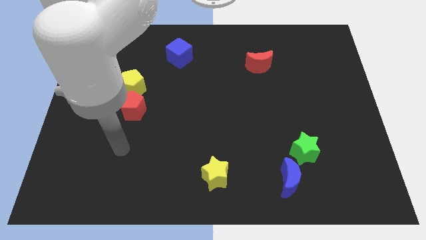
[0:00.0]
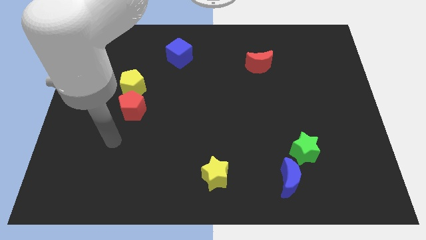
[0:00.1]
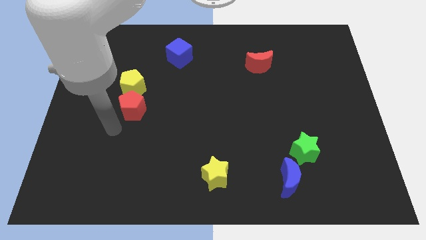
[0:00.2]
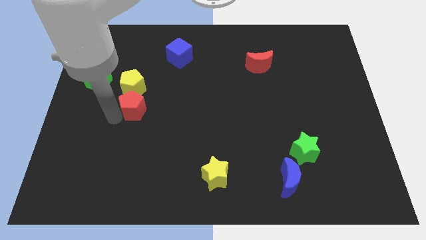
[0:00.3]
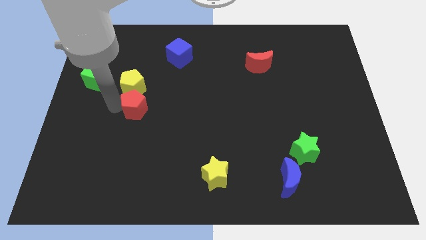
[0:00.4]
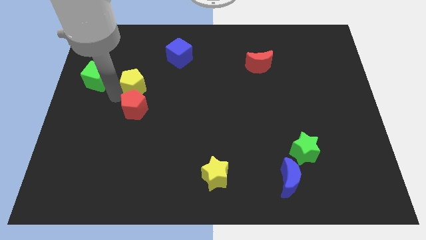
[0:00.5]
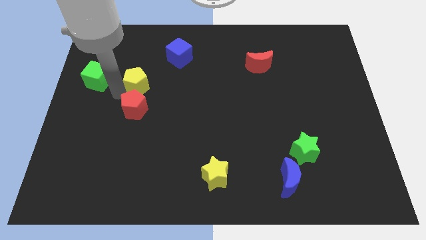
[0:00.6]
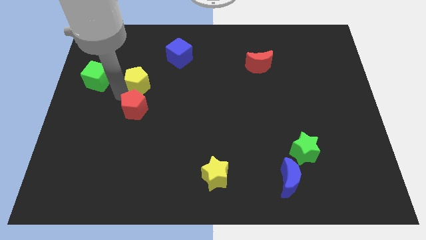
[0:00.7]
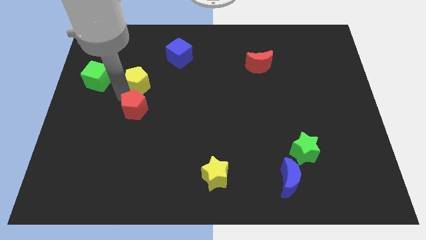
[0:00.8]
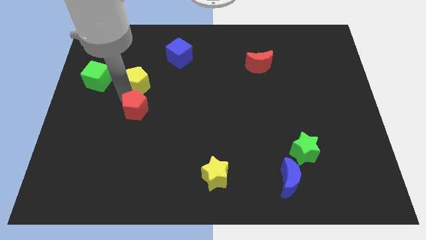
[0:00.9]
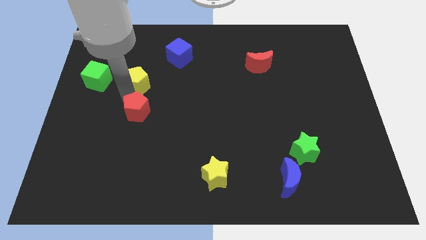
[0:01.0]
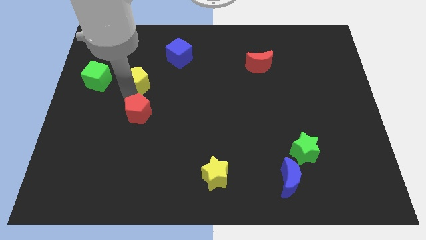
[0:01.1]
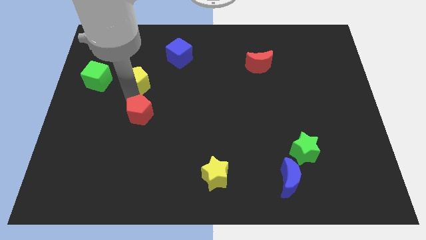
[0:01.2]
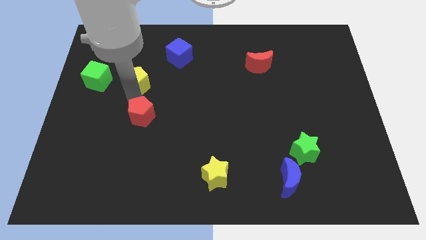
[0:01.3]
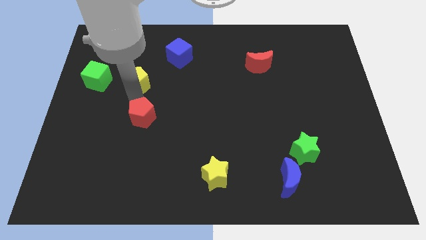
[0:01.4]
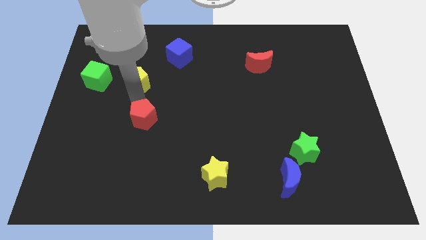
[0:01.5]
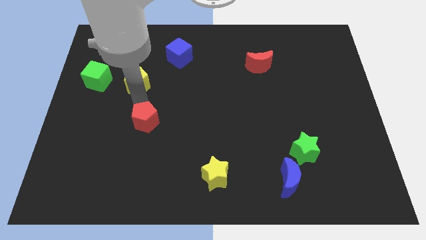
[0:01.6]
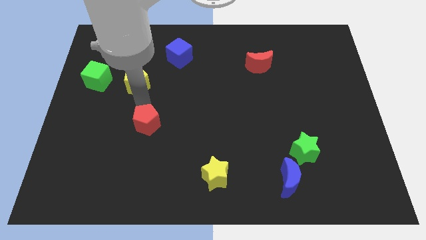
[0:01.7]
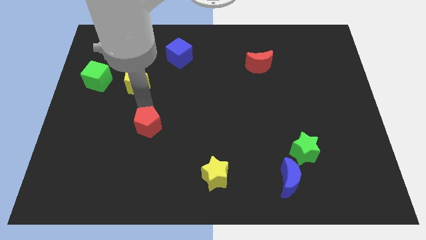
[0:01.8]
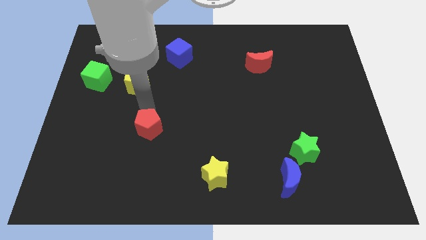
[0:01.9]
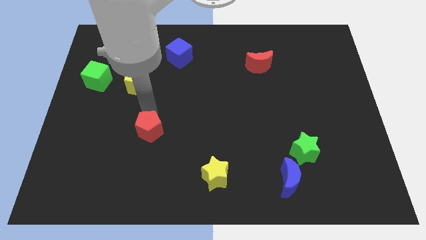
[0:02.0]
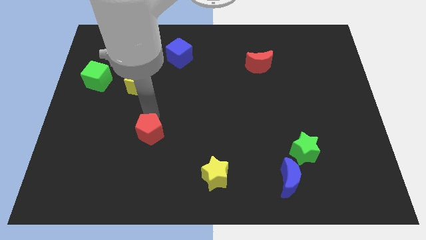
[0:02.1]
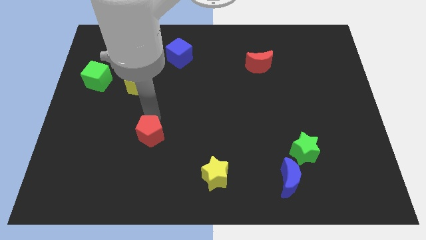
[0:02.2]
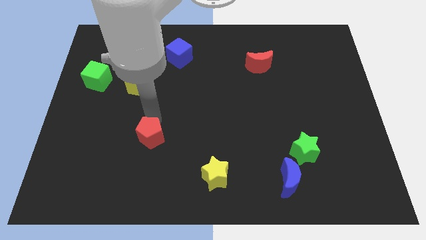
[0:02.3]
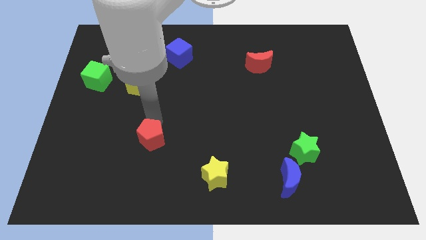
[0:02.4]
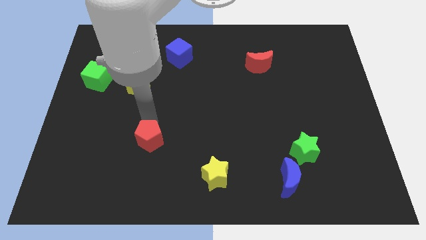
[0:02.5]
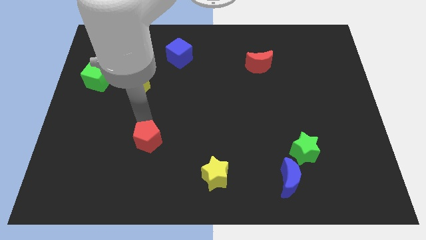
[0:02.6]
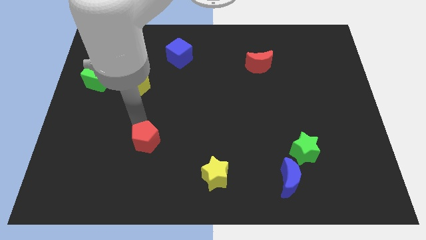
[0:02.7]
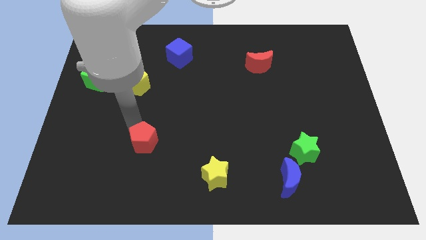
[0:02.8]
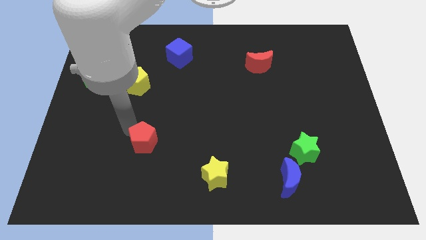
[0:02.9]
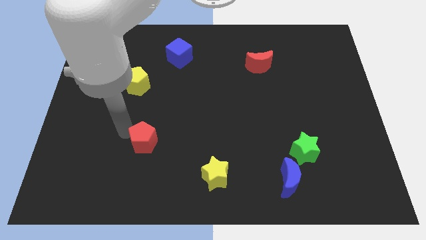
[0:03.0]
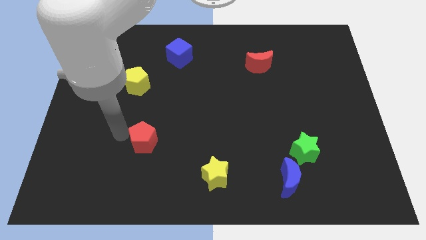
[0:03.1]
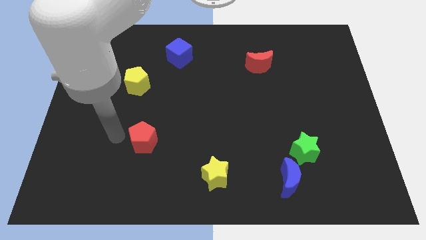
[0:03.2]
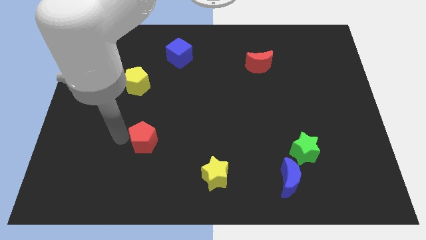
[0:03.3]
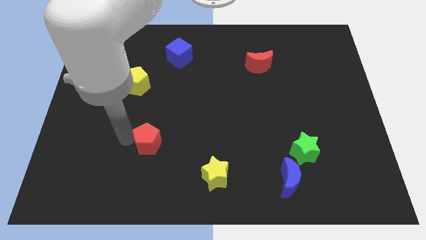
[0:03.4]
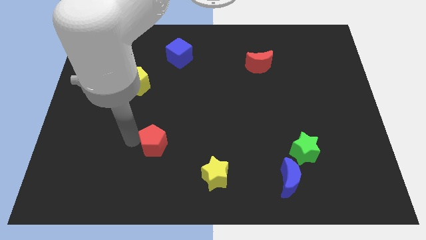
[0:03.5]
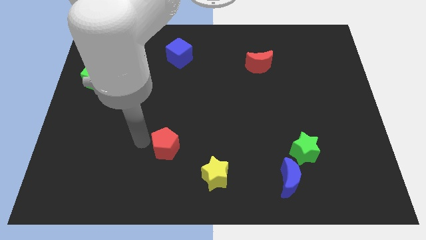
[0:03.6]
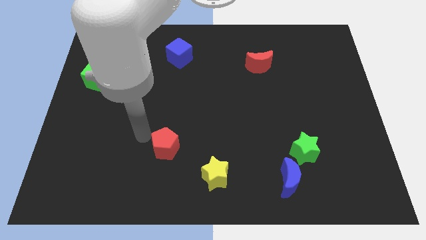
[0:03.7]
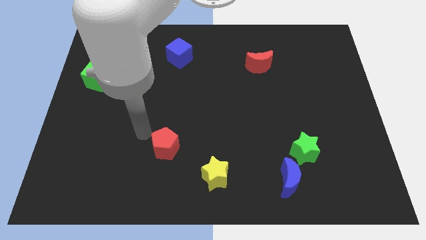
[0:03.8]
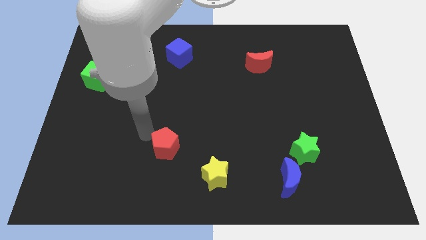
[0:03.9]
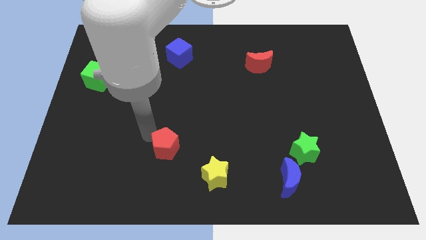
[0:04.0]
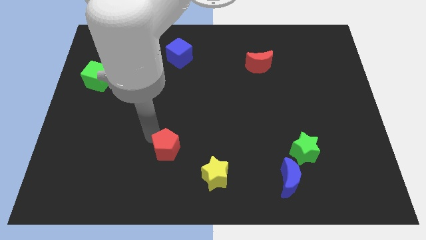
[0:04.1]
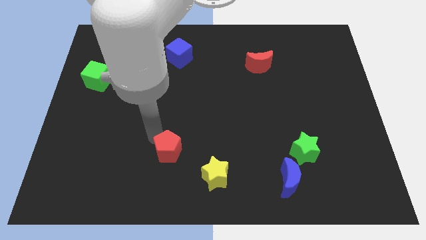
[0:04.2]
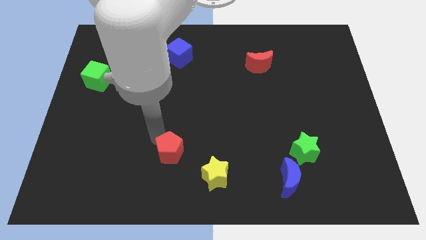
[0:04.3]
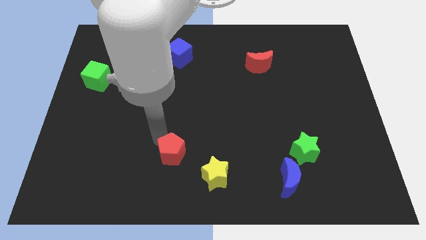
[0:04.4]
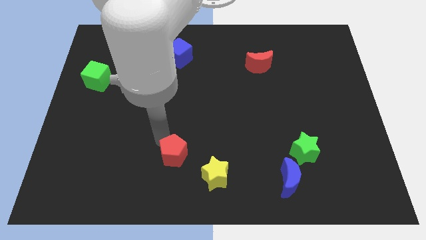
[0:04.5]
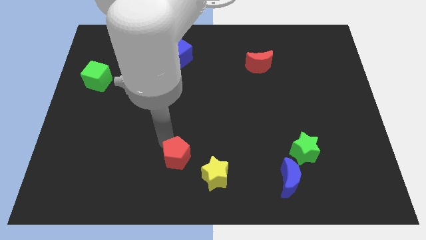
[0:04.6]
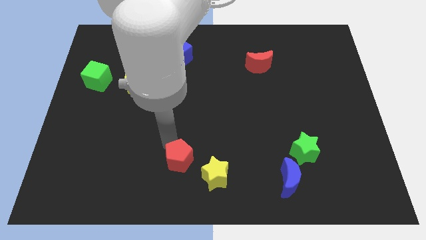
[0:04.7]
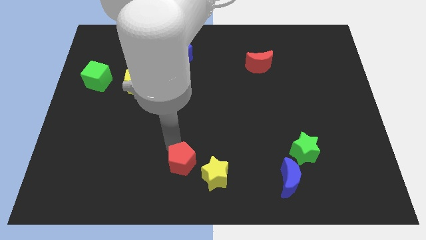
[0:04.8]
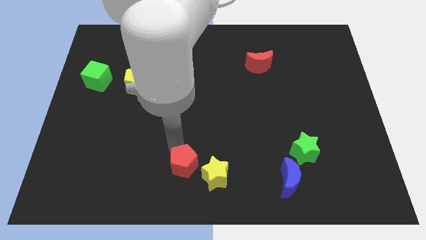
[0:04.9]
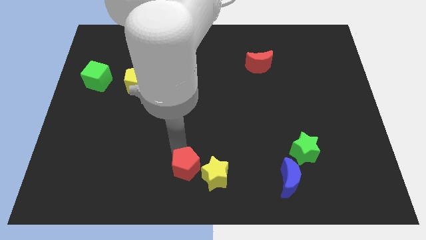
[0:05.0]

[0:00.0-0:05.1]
push the red pentagon next to the yellow star

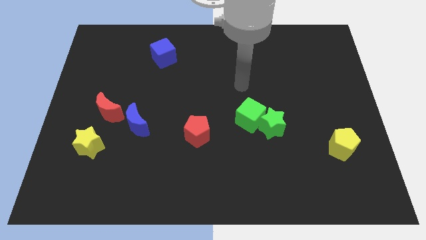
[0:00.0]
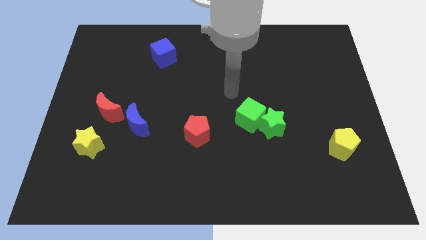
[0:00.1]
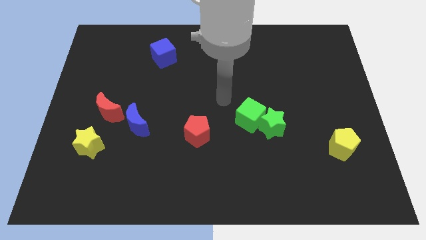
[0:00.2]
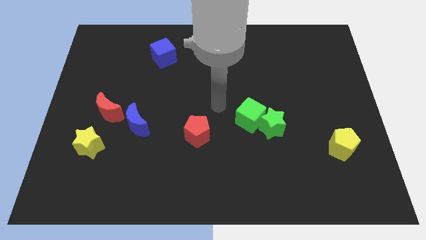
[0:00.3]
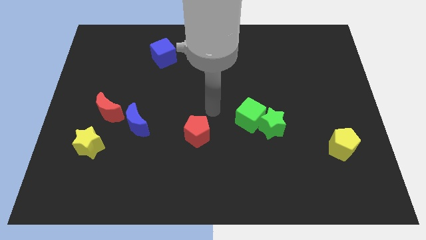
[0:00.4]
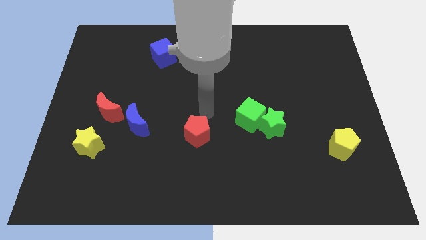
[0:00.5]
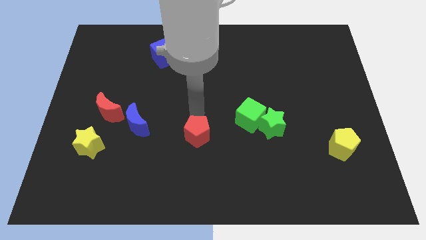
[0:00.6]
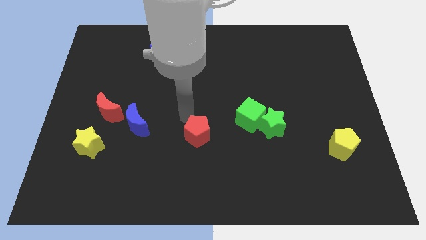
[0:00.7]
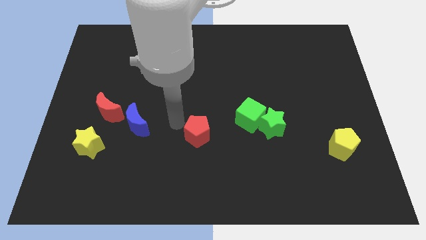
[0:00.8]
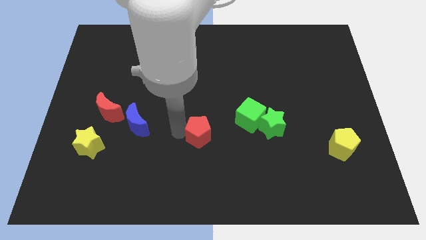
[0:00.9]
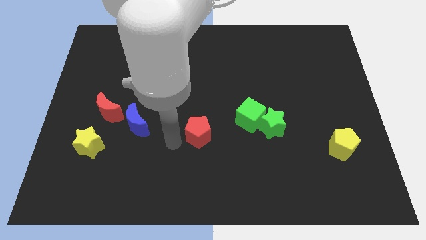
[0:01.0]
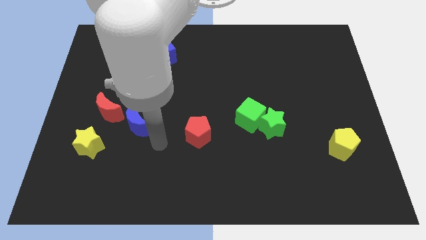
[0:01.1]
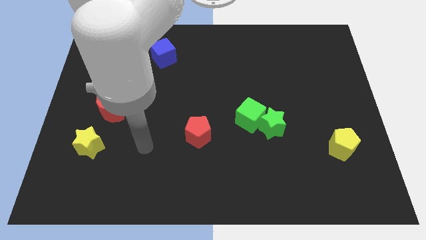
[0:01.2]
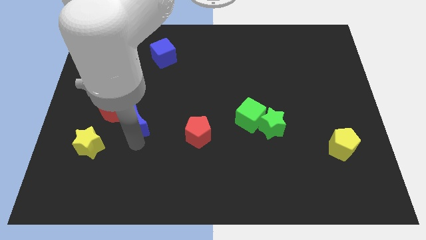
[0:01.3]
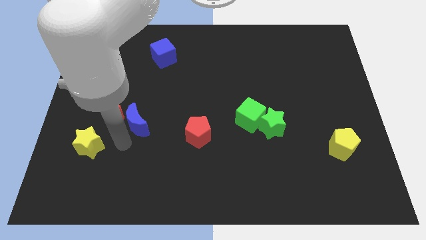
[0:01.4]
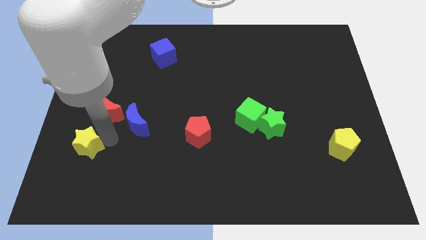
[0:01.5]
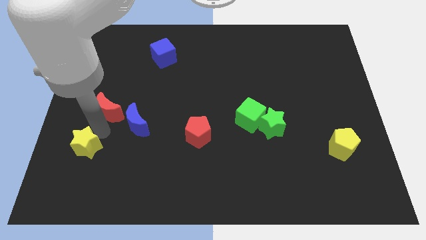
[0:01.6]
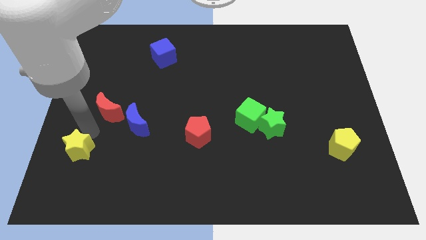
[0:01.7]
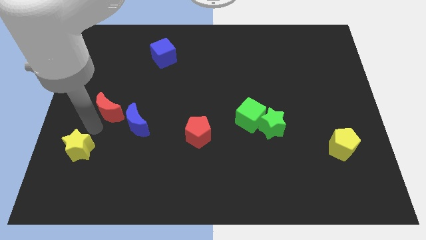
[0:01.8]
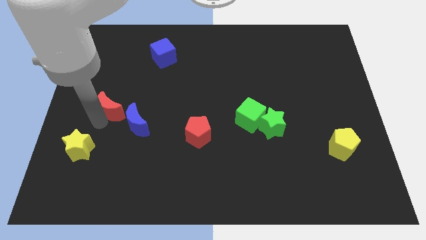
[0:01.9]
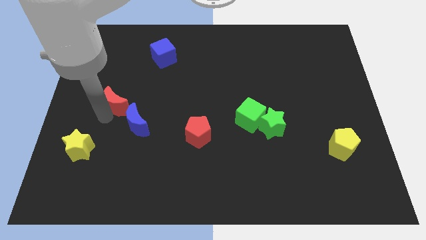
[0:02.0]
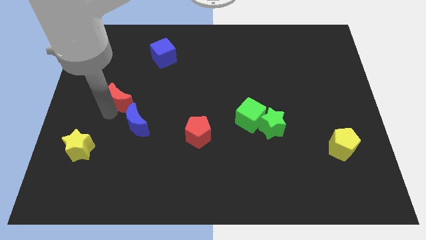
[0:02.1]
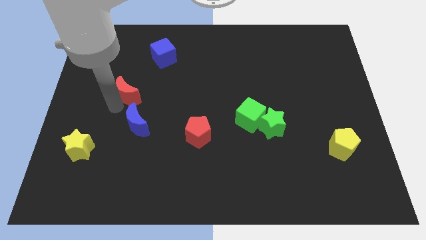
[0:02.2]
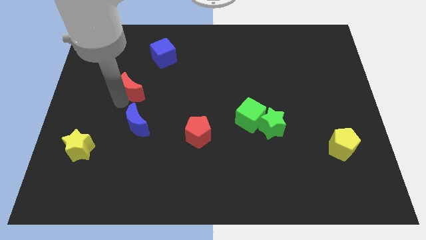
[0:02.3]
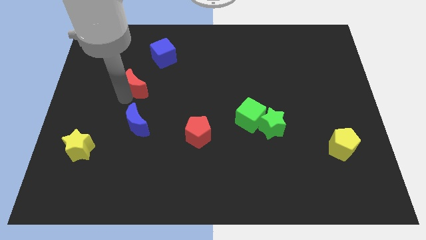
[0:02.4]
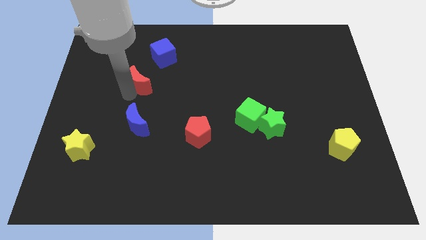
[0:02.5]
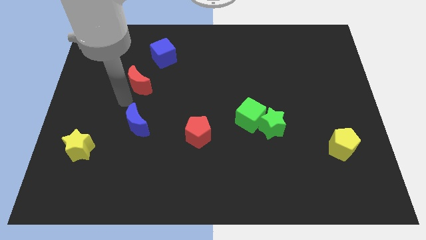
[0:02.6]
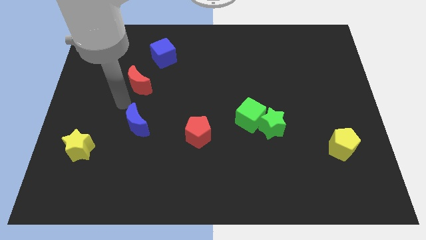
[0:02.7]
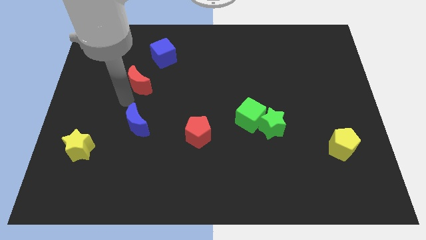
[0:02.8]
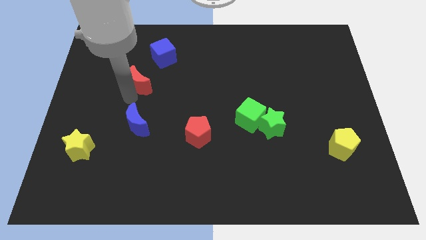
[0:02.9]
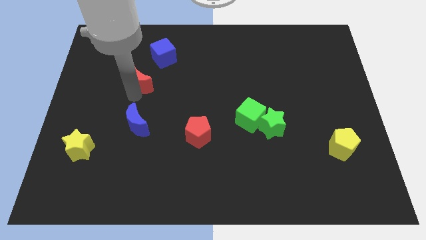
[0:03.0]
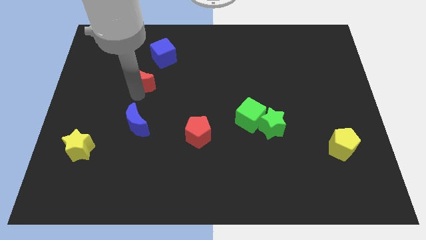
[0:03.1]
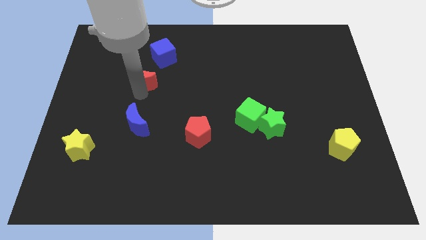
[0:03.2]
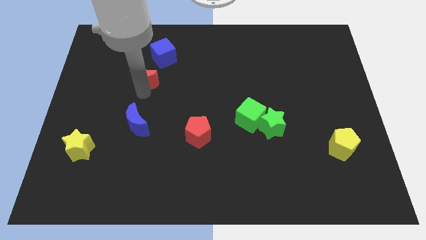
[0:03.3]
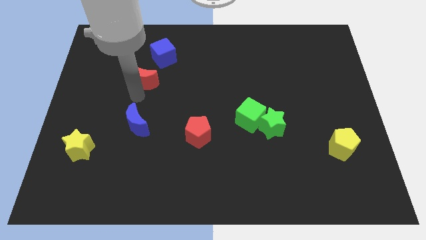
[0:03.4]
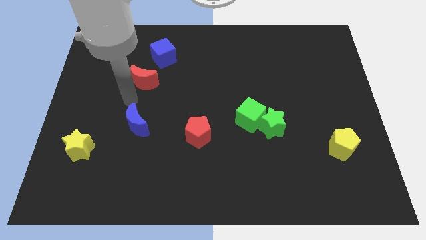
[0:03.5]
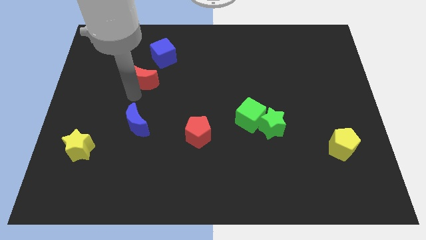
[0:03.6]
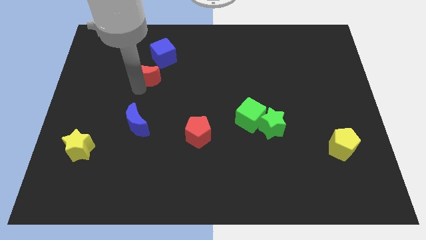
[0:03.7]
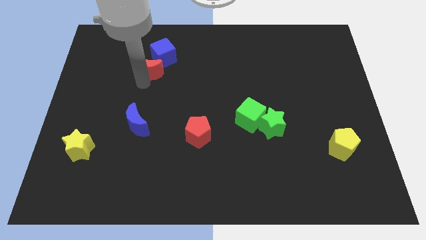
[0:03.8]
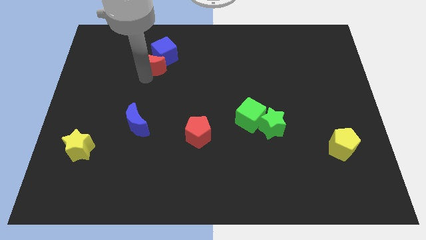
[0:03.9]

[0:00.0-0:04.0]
push the red moon next to the blue cube
